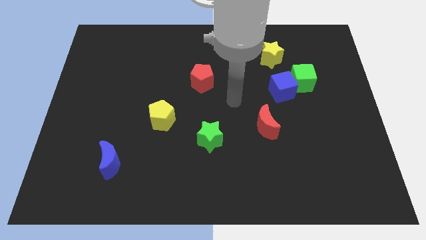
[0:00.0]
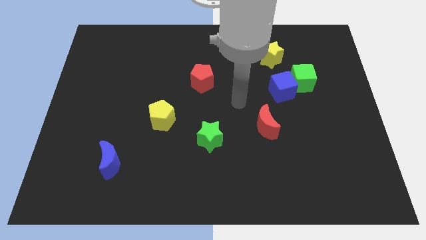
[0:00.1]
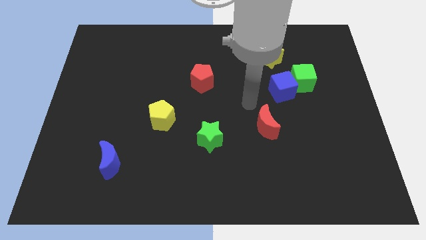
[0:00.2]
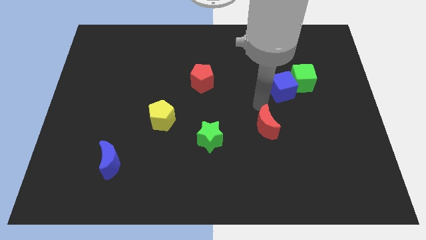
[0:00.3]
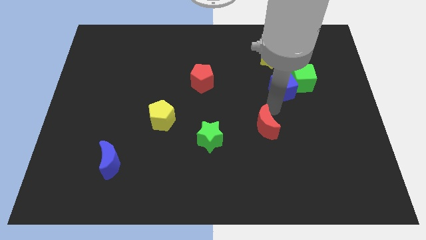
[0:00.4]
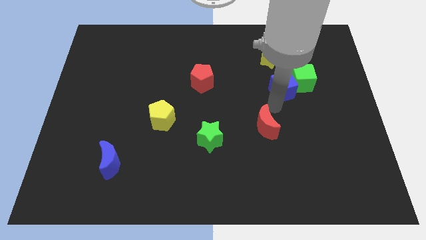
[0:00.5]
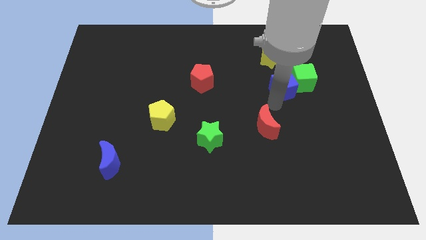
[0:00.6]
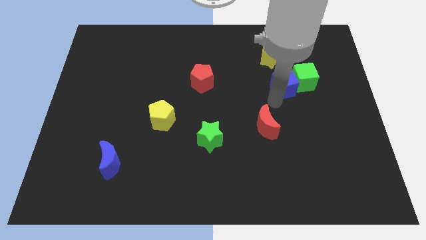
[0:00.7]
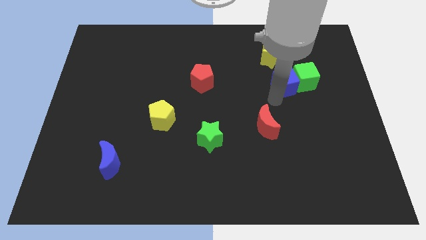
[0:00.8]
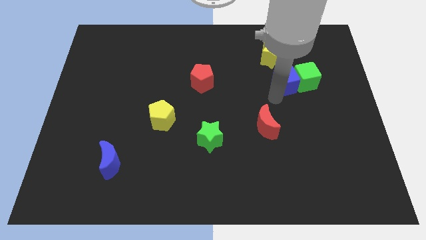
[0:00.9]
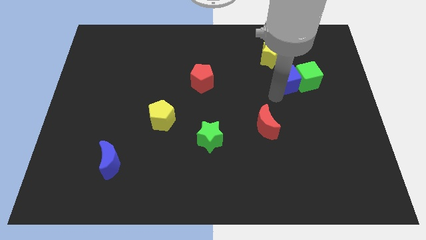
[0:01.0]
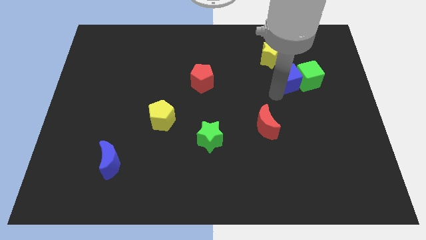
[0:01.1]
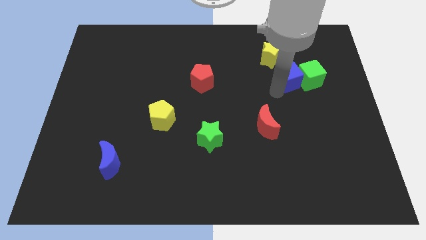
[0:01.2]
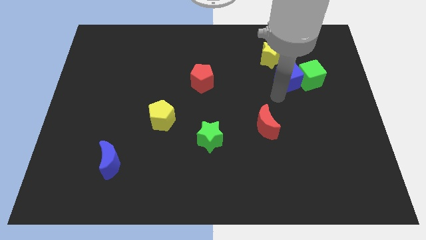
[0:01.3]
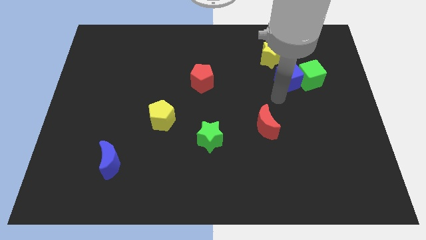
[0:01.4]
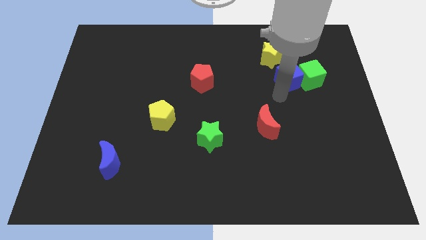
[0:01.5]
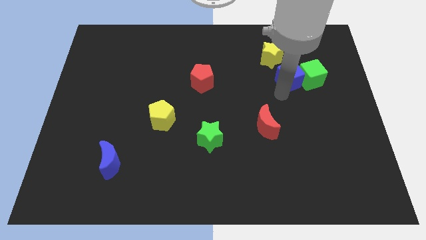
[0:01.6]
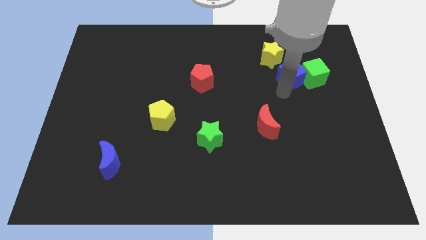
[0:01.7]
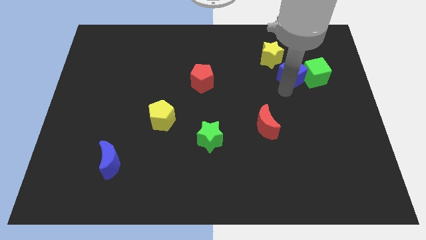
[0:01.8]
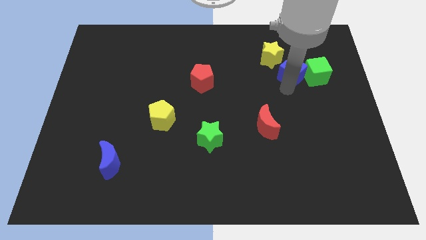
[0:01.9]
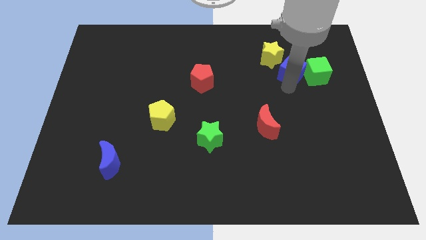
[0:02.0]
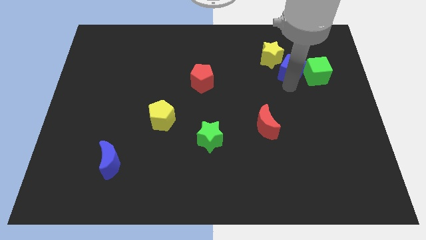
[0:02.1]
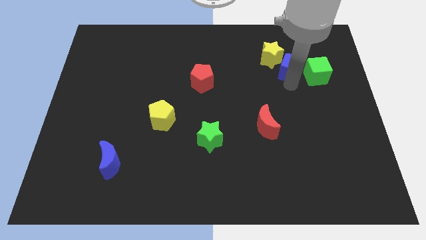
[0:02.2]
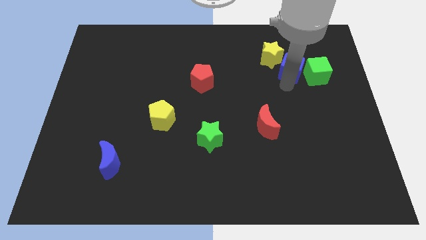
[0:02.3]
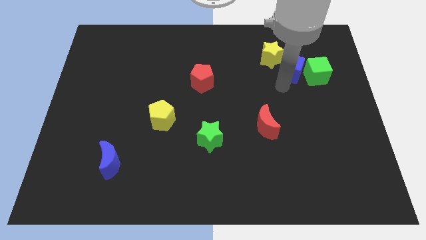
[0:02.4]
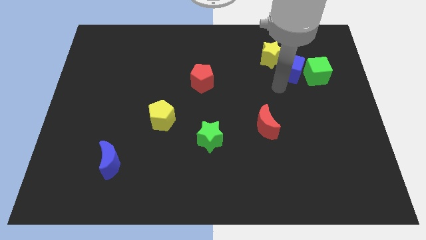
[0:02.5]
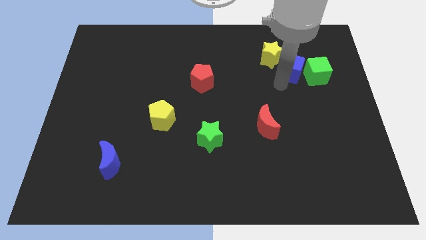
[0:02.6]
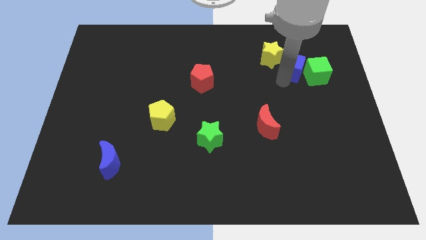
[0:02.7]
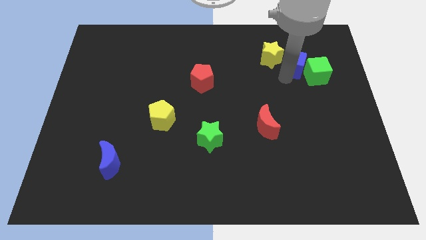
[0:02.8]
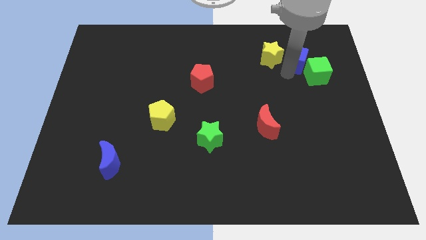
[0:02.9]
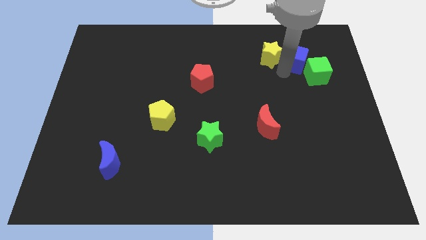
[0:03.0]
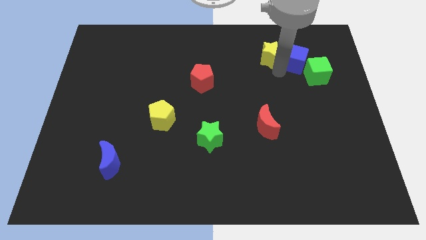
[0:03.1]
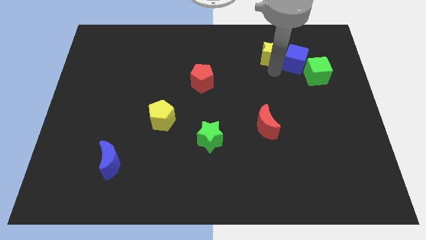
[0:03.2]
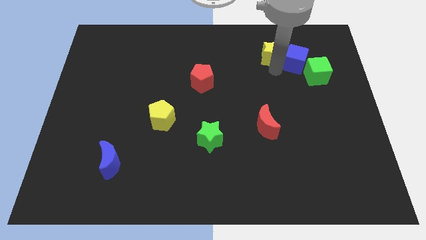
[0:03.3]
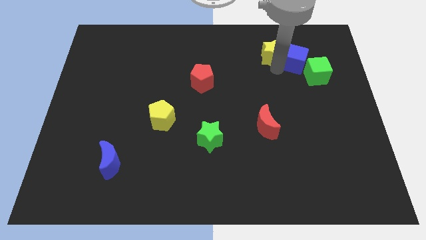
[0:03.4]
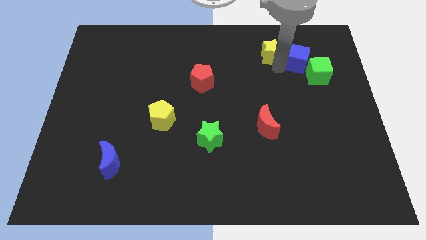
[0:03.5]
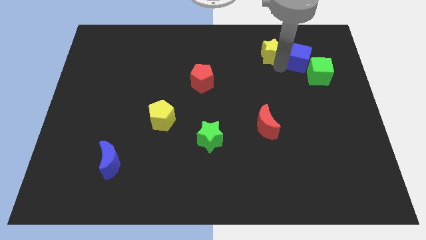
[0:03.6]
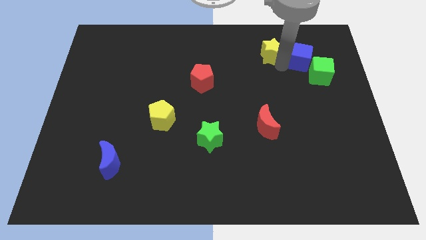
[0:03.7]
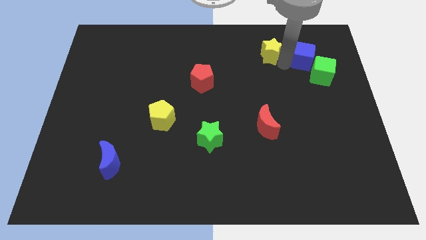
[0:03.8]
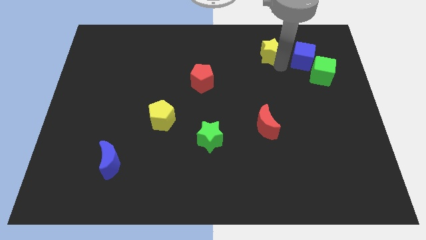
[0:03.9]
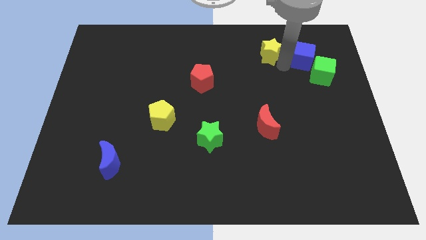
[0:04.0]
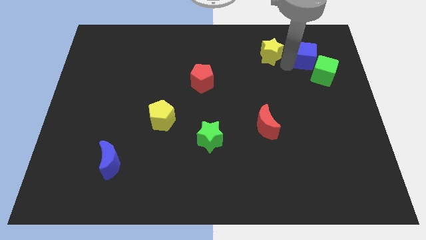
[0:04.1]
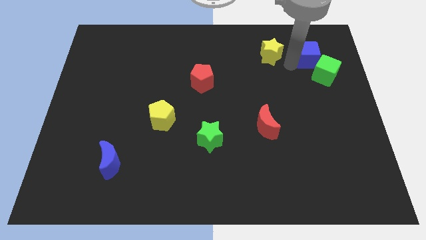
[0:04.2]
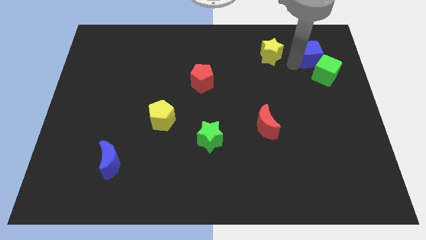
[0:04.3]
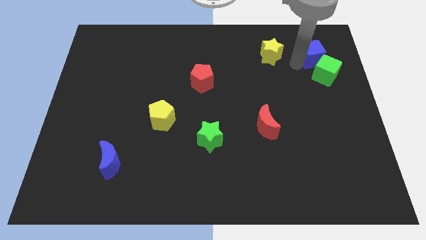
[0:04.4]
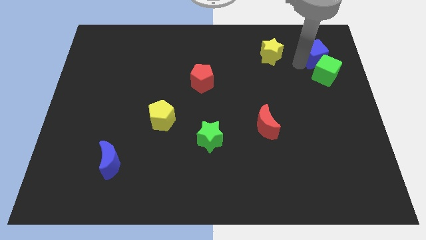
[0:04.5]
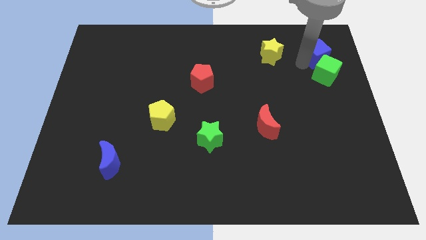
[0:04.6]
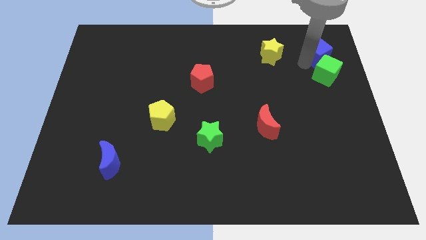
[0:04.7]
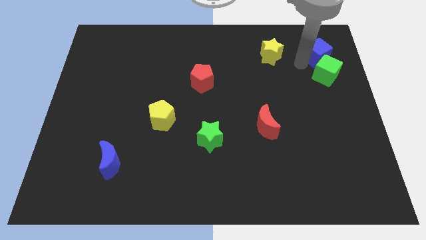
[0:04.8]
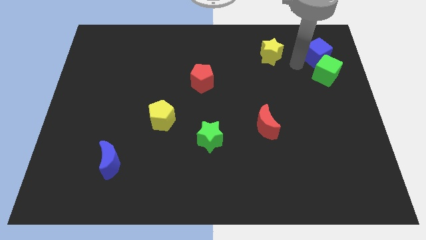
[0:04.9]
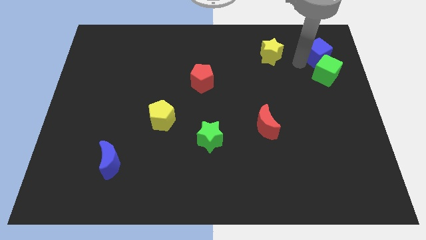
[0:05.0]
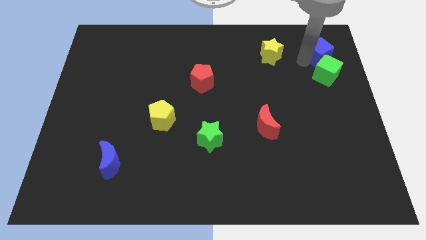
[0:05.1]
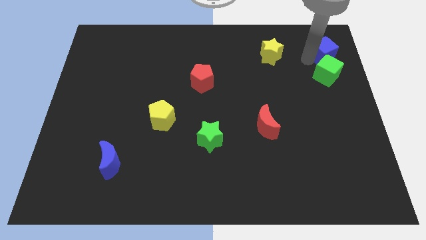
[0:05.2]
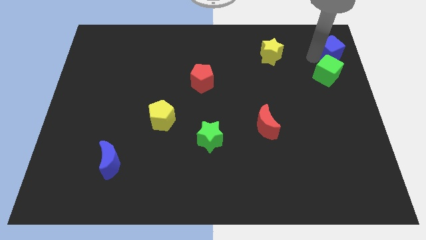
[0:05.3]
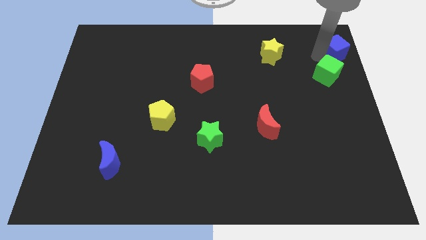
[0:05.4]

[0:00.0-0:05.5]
move the blue cube to the top right

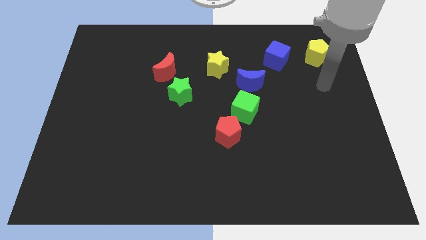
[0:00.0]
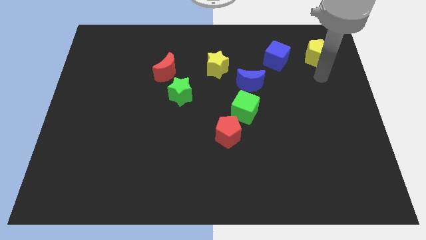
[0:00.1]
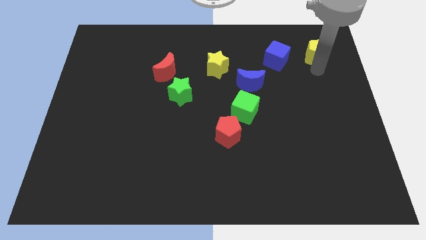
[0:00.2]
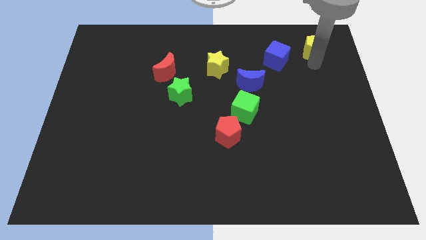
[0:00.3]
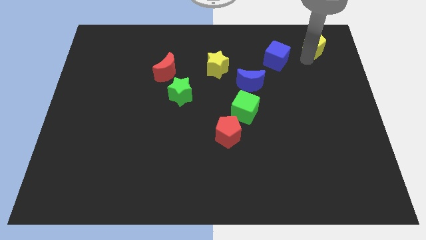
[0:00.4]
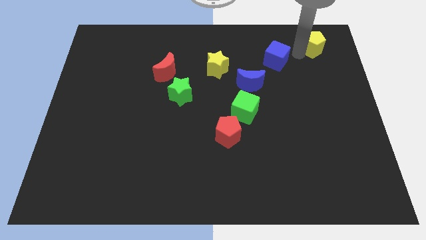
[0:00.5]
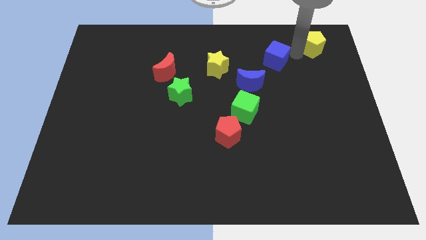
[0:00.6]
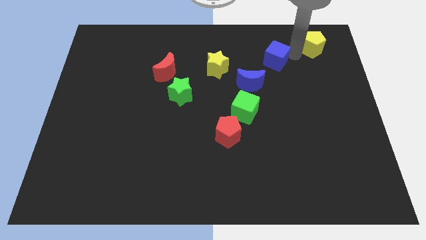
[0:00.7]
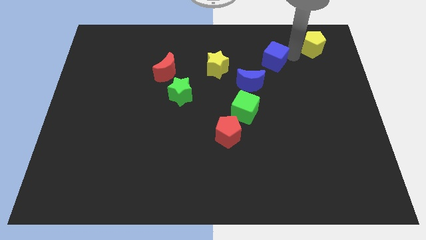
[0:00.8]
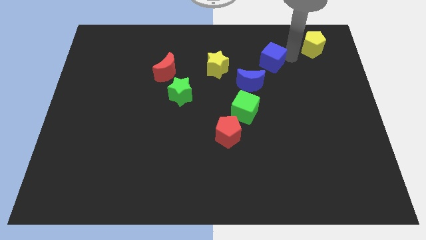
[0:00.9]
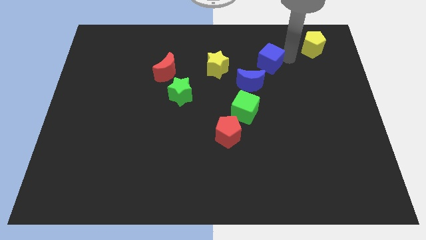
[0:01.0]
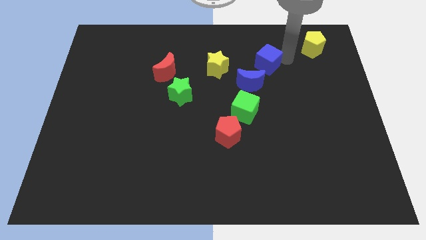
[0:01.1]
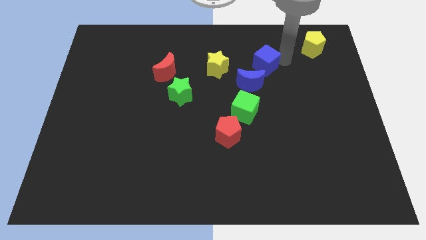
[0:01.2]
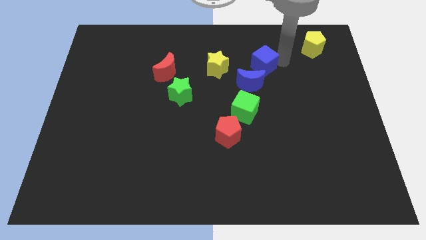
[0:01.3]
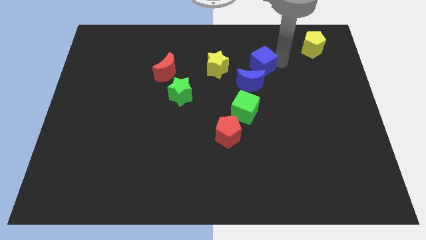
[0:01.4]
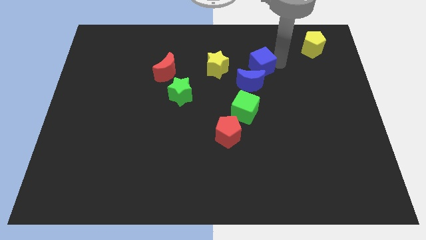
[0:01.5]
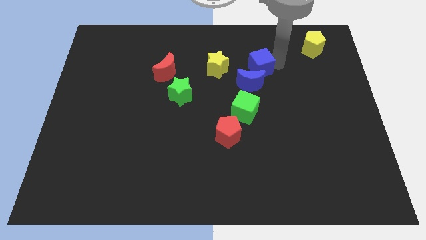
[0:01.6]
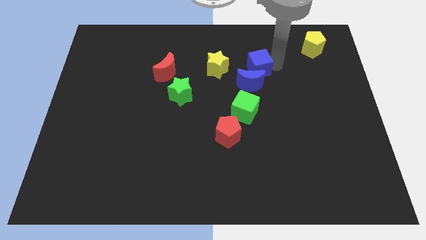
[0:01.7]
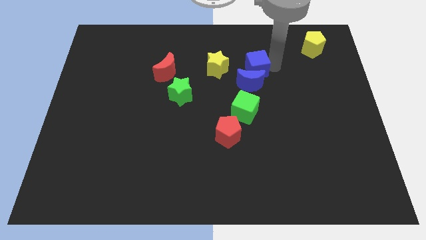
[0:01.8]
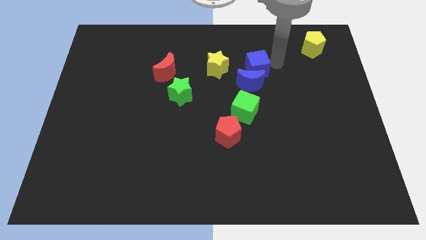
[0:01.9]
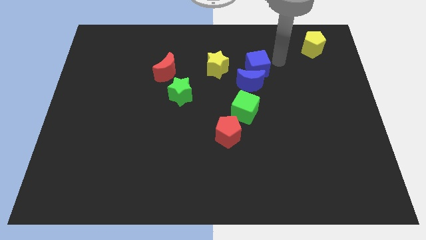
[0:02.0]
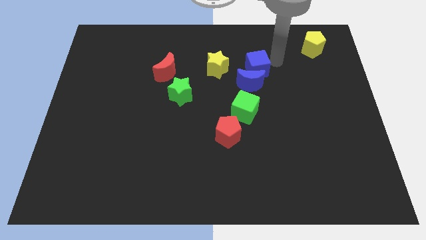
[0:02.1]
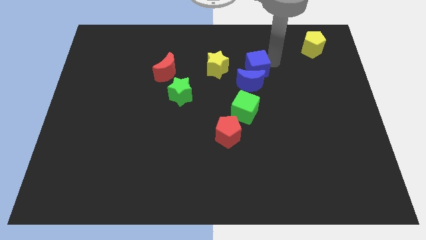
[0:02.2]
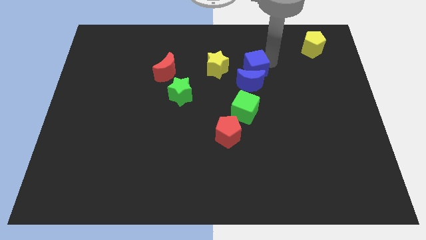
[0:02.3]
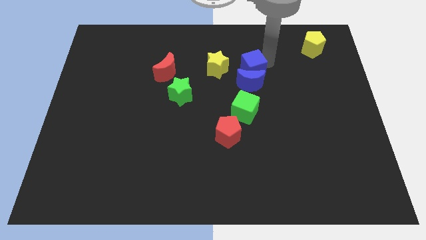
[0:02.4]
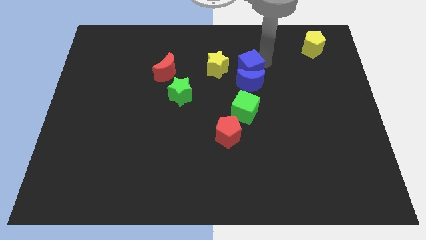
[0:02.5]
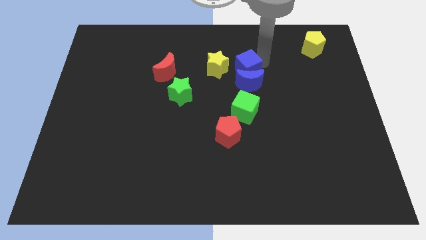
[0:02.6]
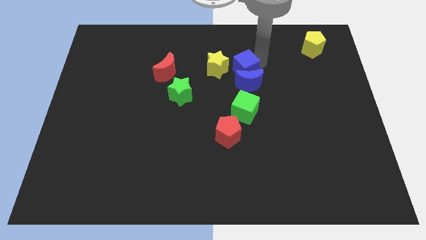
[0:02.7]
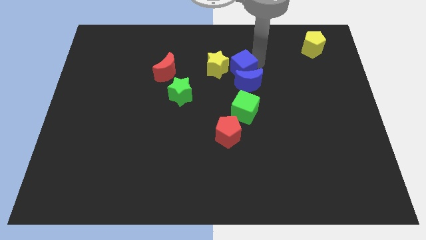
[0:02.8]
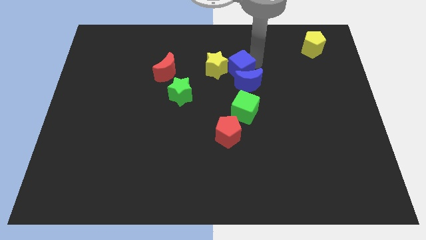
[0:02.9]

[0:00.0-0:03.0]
move the blue cube to the center
